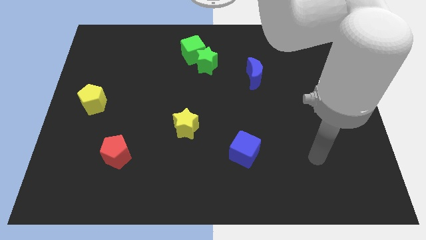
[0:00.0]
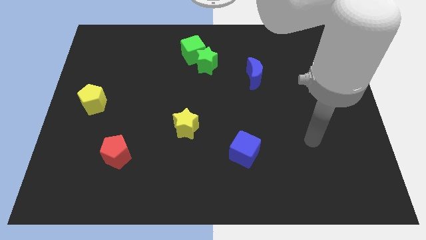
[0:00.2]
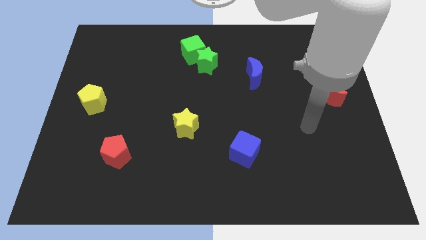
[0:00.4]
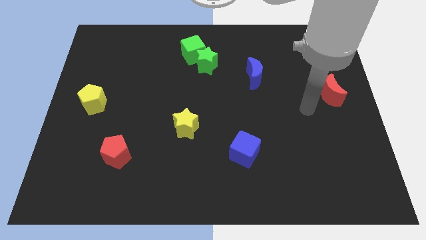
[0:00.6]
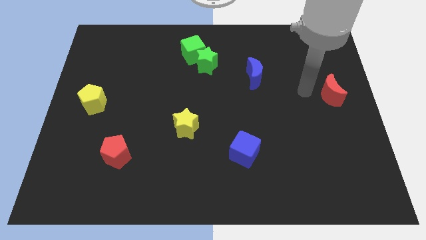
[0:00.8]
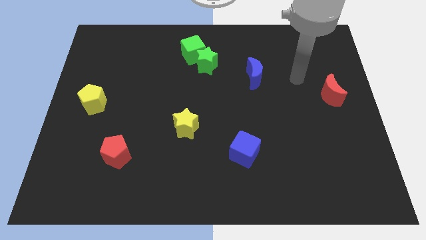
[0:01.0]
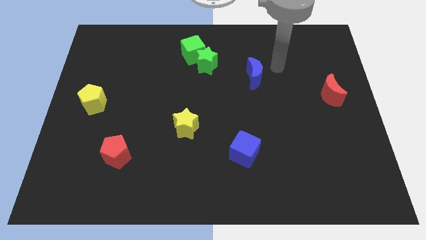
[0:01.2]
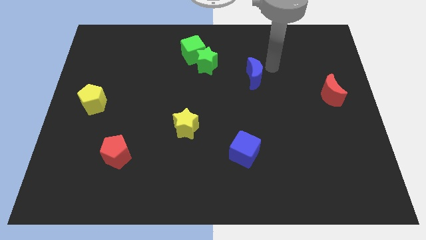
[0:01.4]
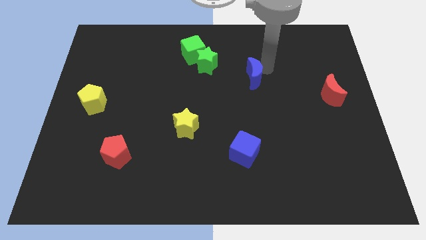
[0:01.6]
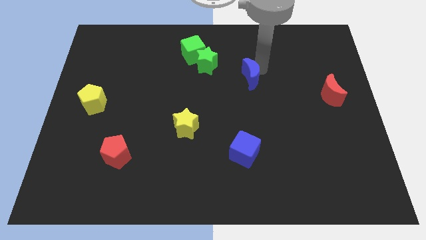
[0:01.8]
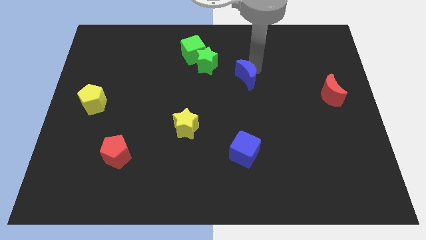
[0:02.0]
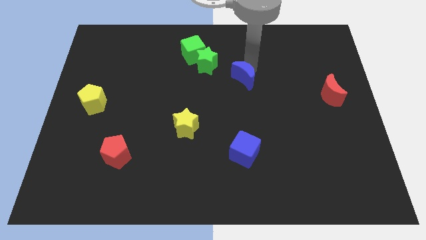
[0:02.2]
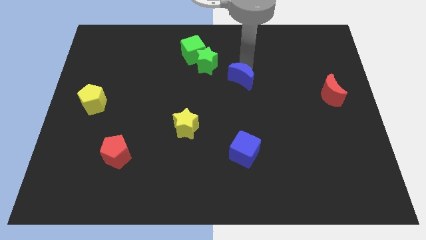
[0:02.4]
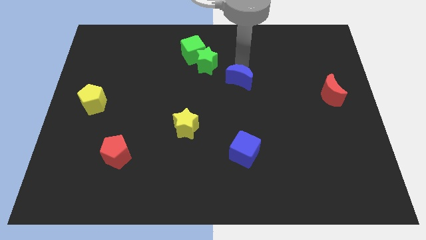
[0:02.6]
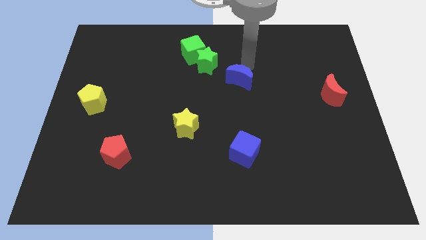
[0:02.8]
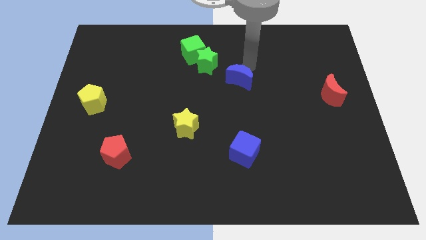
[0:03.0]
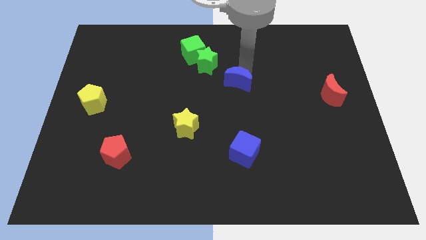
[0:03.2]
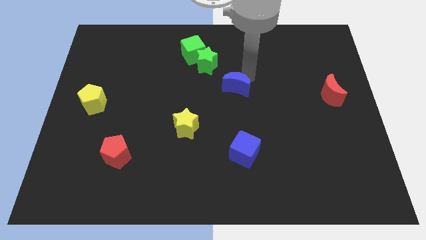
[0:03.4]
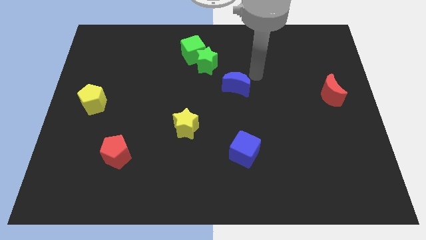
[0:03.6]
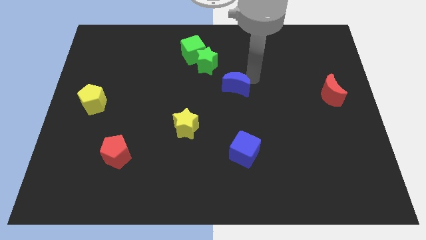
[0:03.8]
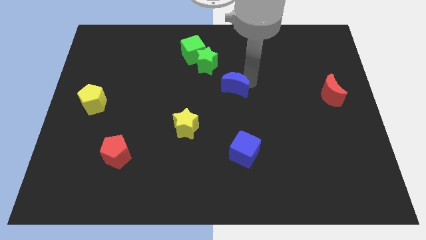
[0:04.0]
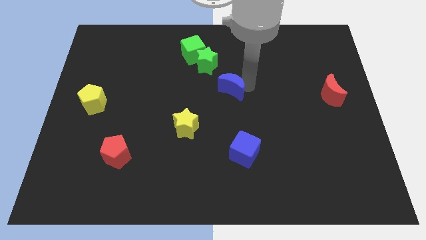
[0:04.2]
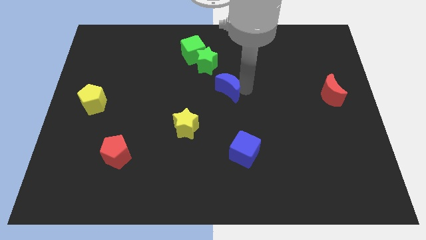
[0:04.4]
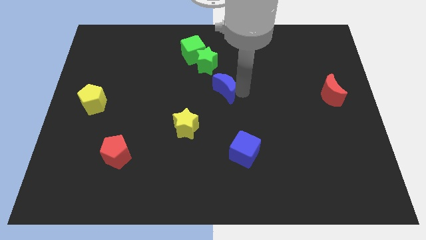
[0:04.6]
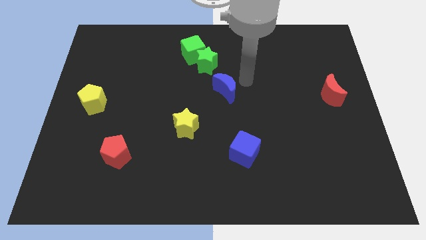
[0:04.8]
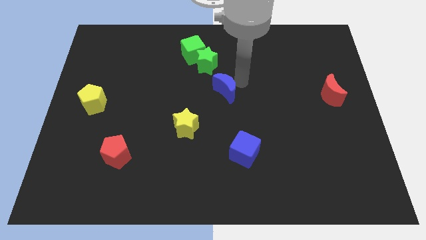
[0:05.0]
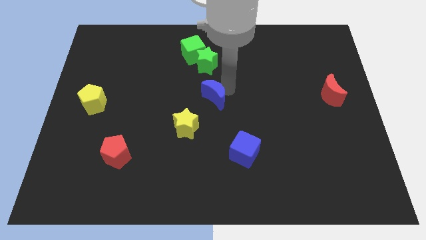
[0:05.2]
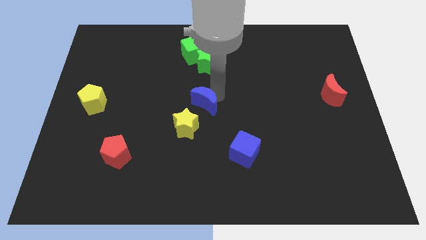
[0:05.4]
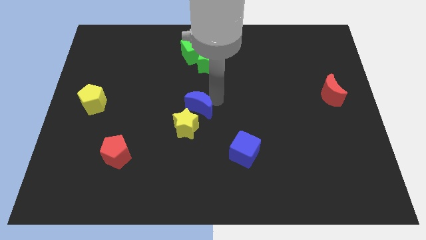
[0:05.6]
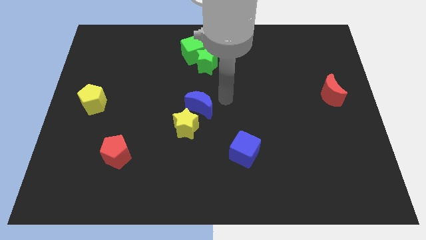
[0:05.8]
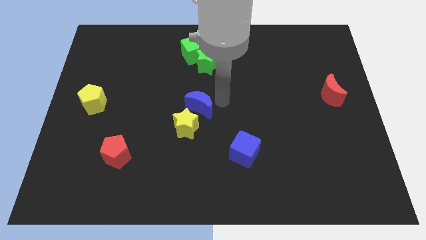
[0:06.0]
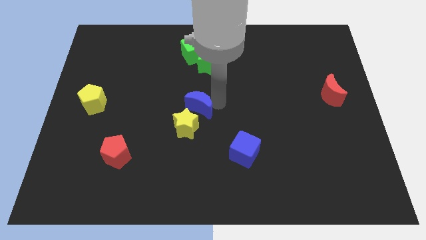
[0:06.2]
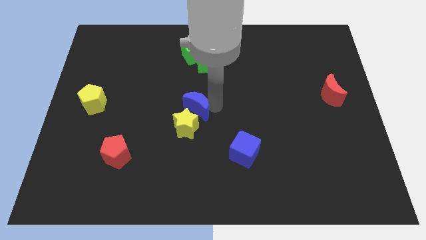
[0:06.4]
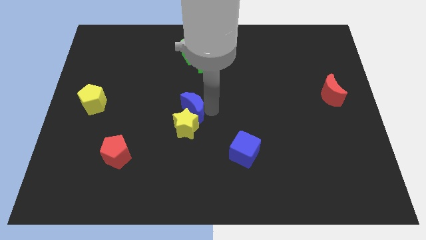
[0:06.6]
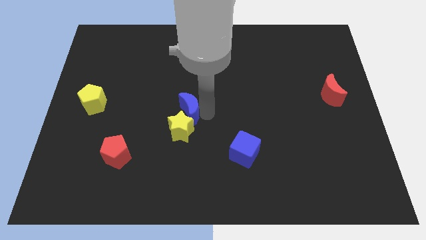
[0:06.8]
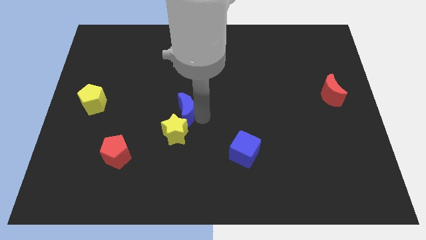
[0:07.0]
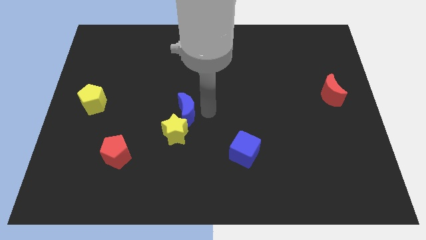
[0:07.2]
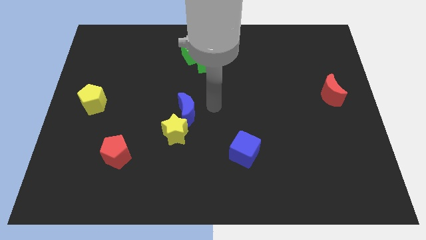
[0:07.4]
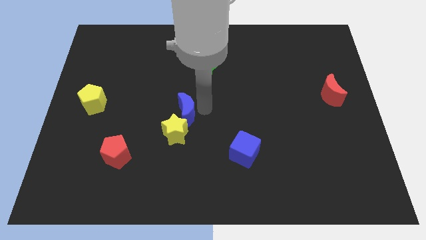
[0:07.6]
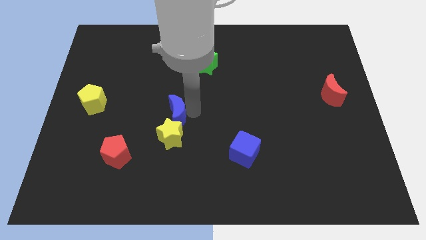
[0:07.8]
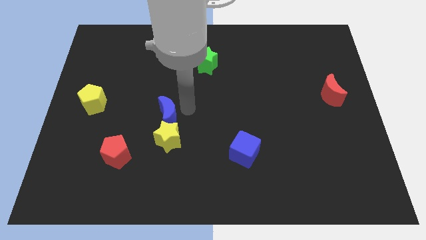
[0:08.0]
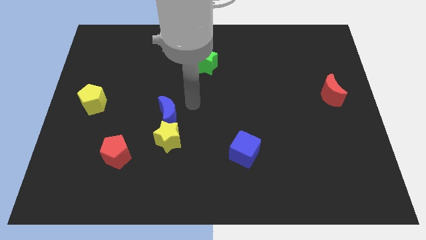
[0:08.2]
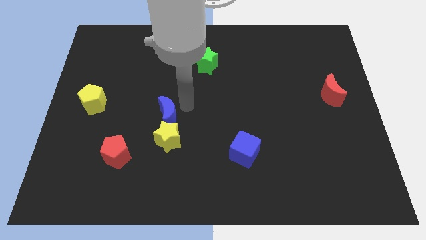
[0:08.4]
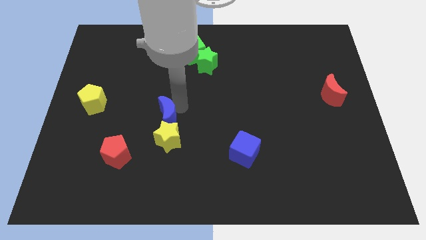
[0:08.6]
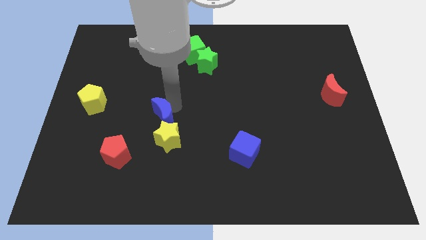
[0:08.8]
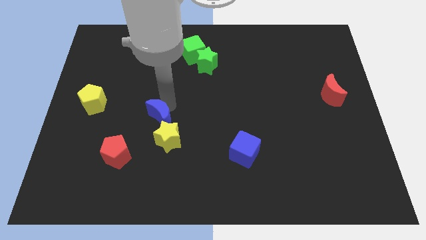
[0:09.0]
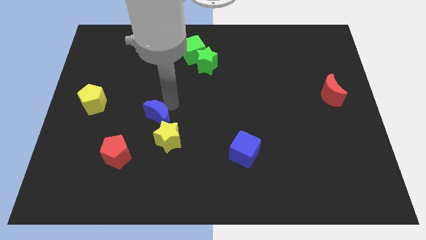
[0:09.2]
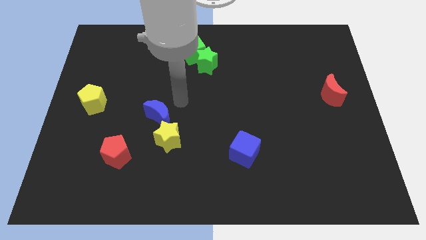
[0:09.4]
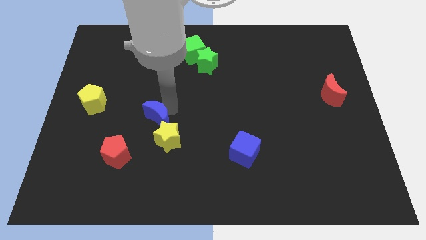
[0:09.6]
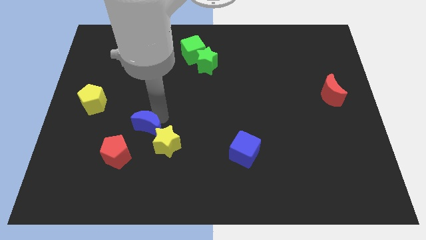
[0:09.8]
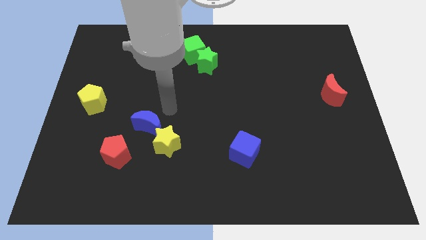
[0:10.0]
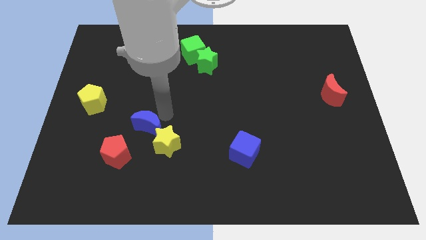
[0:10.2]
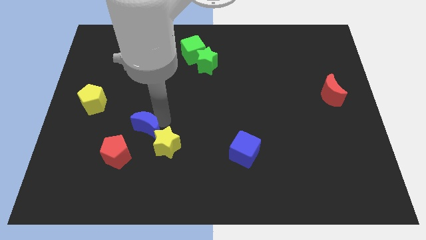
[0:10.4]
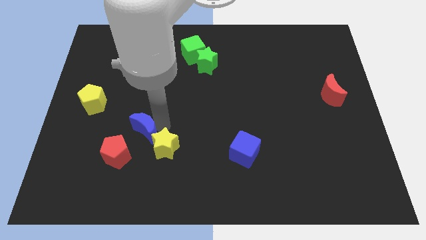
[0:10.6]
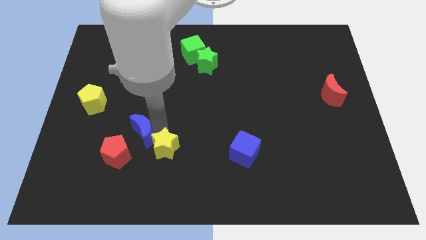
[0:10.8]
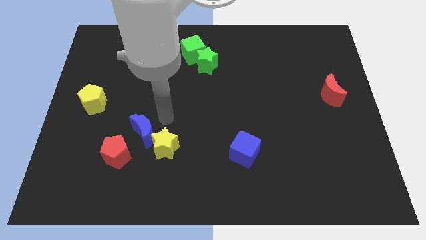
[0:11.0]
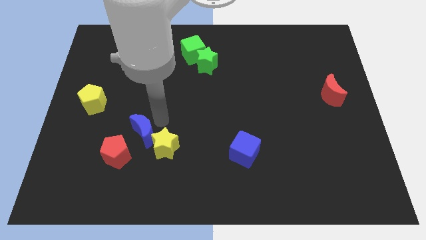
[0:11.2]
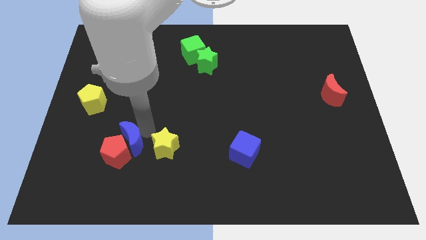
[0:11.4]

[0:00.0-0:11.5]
move the blue moon close to the red pentagon

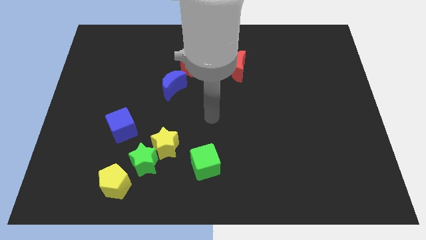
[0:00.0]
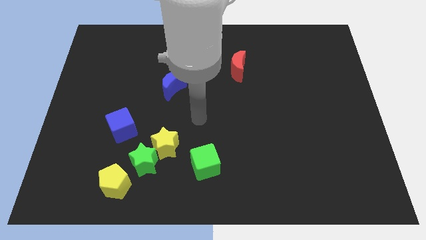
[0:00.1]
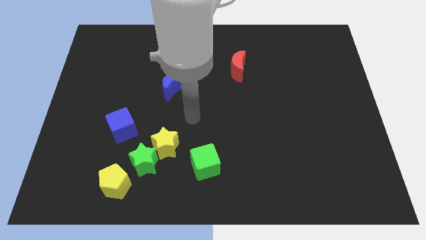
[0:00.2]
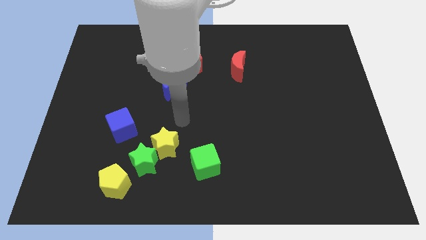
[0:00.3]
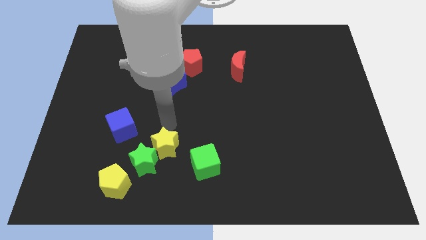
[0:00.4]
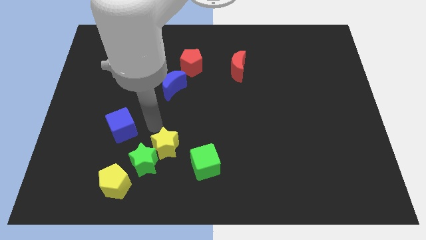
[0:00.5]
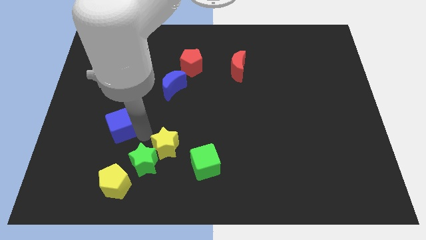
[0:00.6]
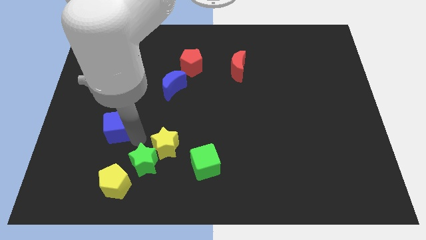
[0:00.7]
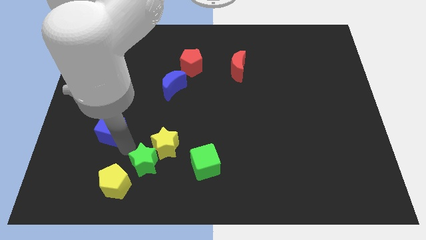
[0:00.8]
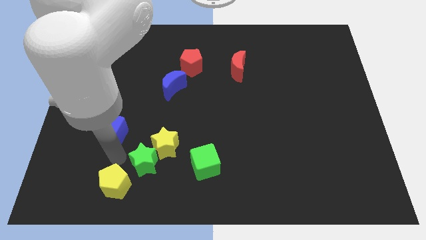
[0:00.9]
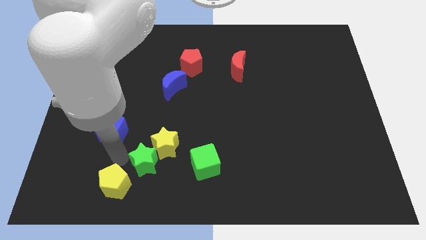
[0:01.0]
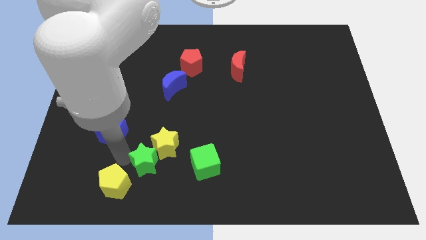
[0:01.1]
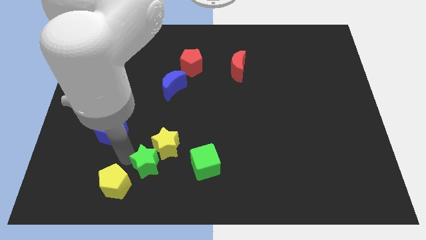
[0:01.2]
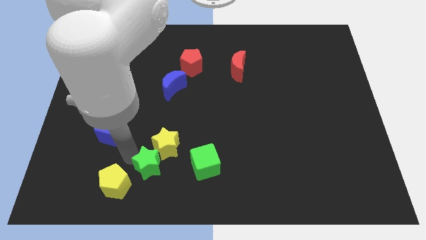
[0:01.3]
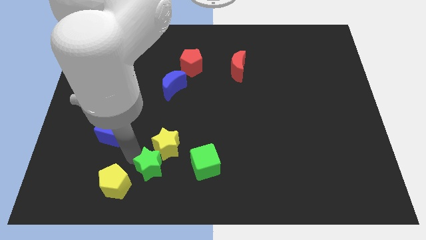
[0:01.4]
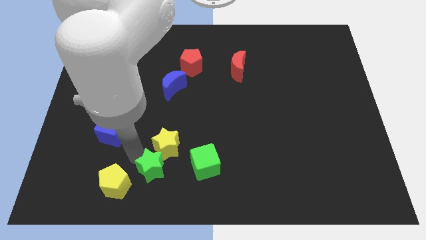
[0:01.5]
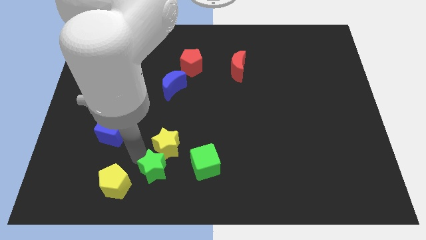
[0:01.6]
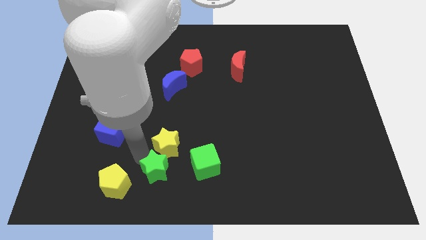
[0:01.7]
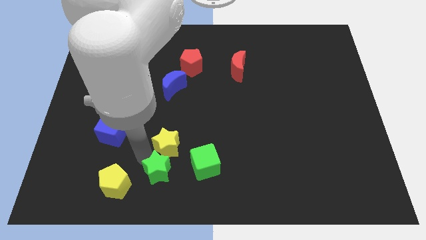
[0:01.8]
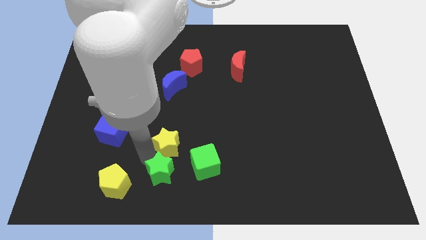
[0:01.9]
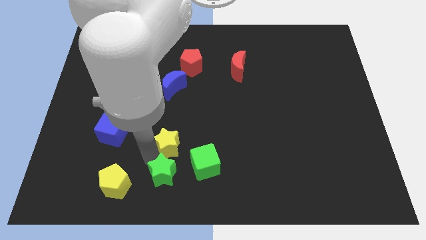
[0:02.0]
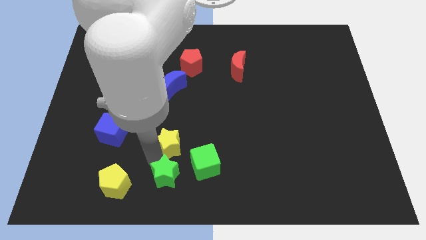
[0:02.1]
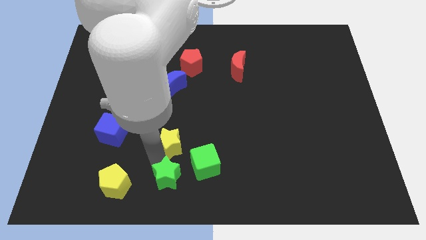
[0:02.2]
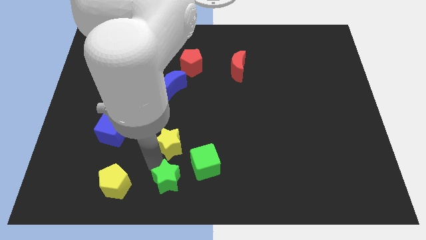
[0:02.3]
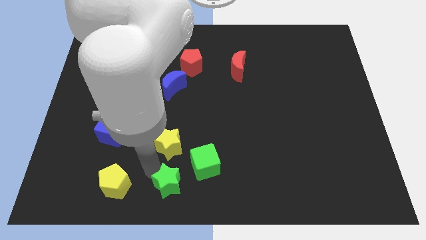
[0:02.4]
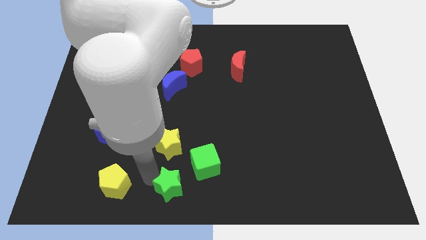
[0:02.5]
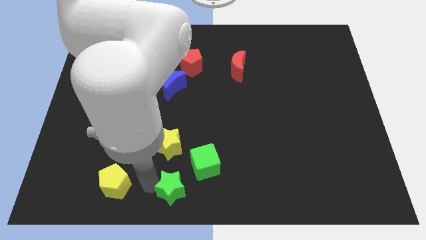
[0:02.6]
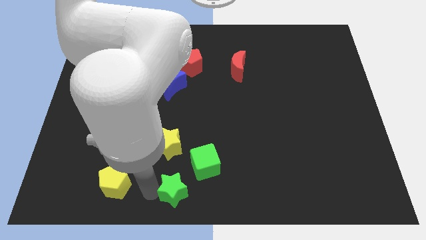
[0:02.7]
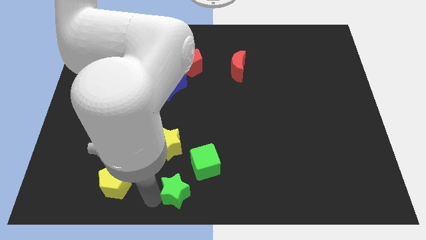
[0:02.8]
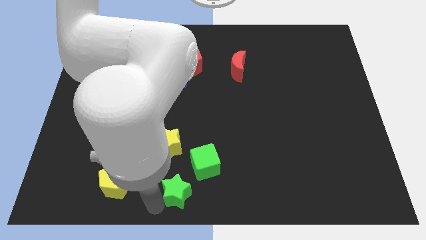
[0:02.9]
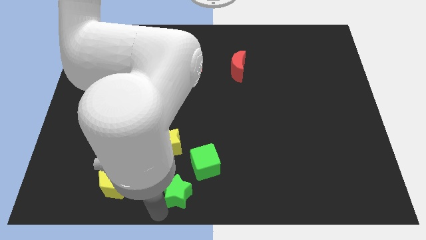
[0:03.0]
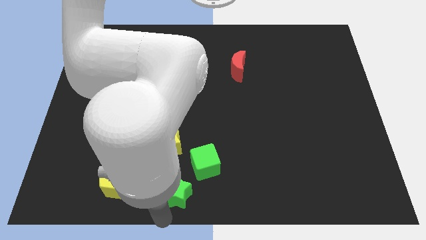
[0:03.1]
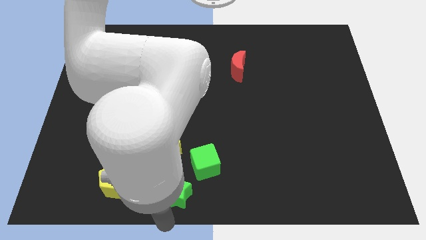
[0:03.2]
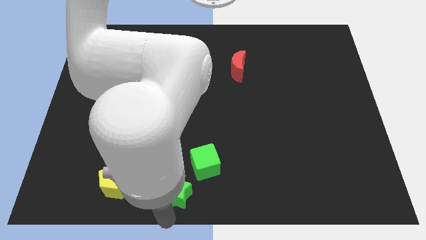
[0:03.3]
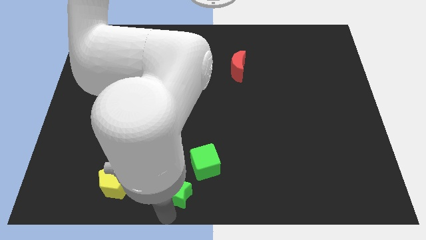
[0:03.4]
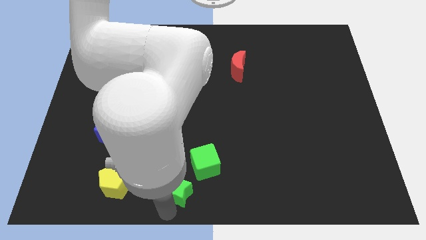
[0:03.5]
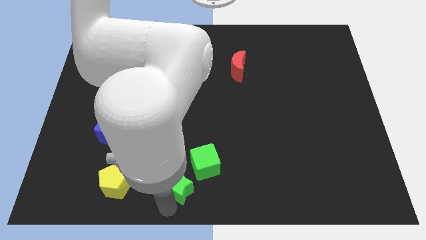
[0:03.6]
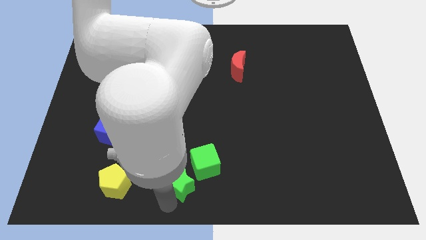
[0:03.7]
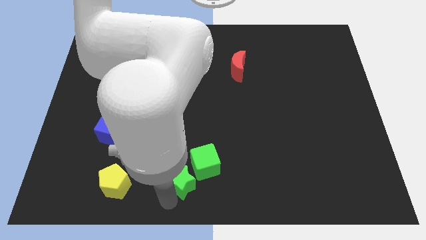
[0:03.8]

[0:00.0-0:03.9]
put the green star towards the green cube
